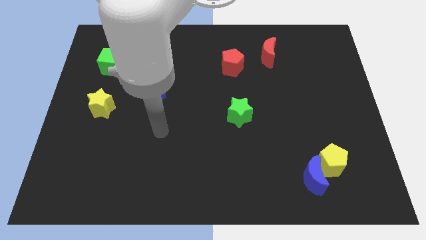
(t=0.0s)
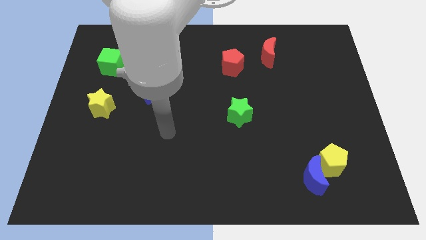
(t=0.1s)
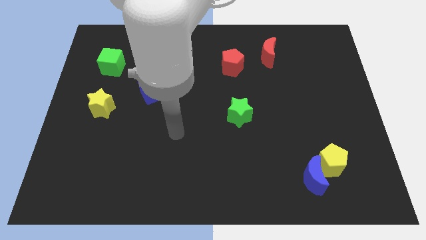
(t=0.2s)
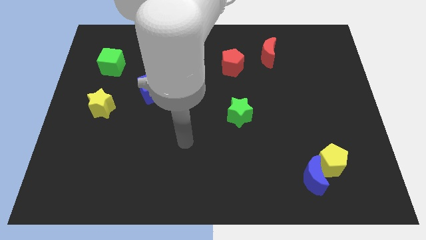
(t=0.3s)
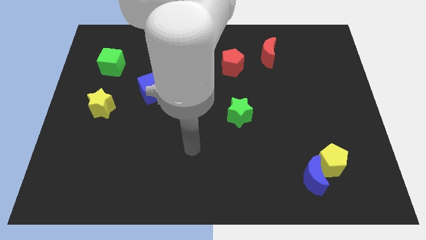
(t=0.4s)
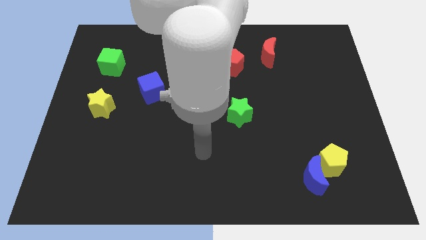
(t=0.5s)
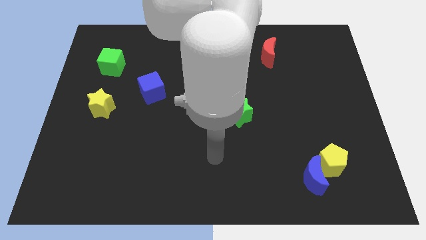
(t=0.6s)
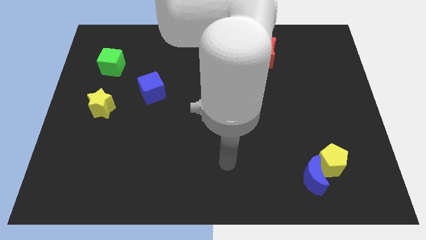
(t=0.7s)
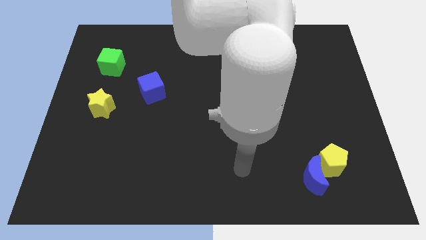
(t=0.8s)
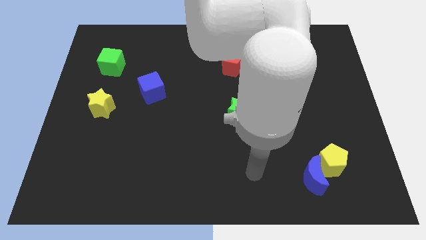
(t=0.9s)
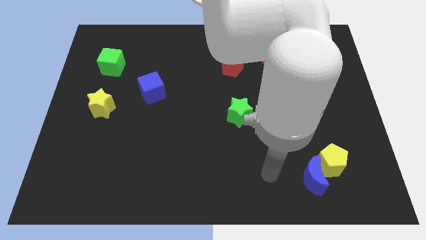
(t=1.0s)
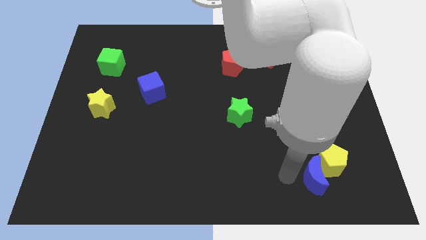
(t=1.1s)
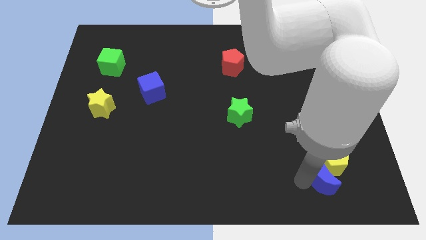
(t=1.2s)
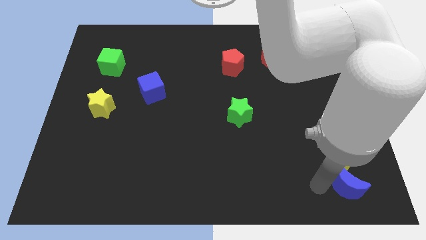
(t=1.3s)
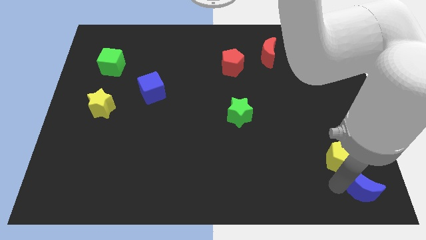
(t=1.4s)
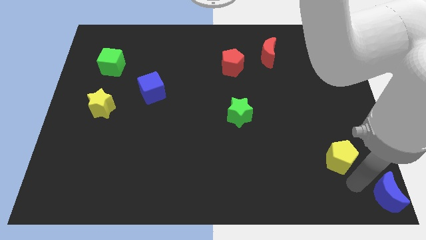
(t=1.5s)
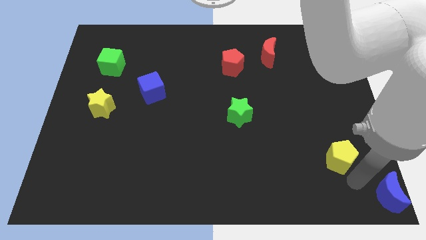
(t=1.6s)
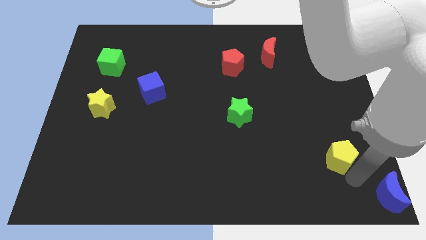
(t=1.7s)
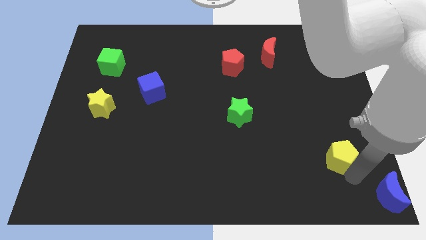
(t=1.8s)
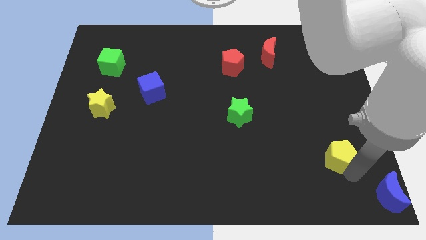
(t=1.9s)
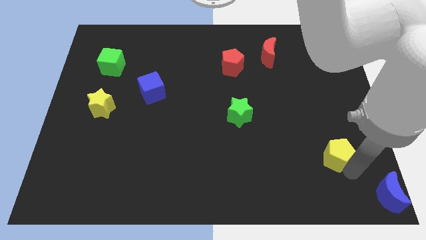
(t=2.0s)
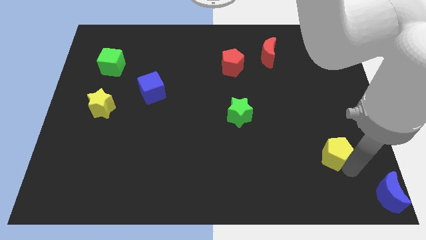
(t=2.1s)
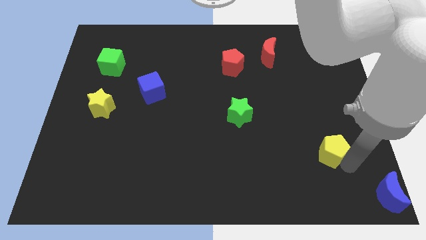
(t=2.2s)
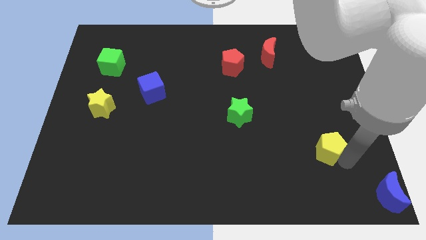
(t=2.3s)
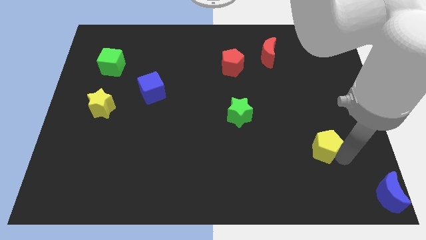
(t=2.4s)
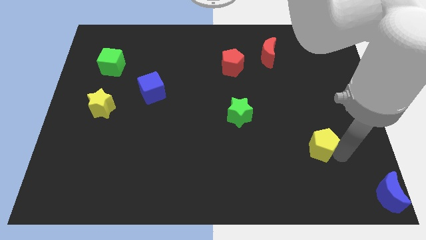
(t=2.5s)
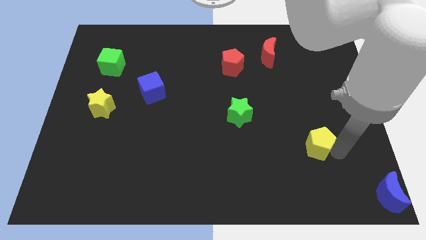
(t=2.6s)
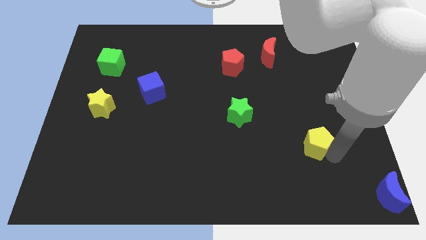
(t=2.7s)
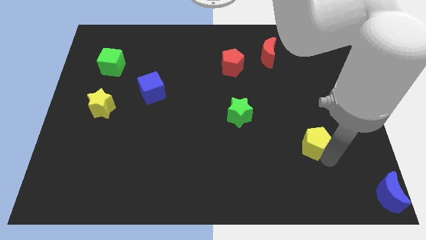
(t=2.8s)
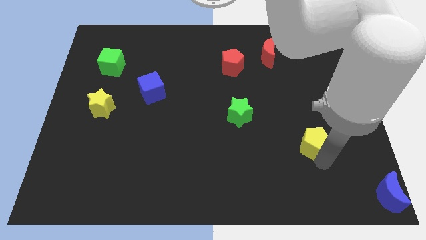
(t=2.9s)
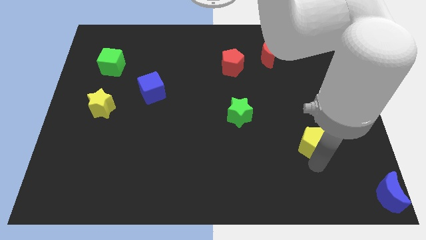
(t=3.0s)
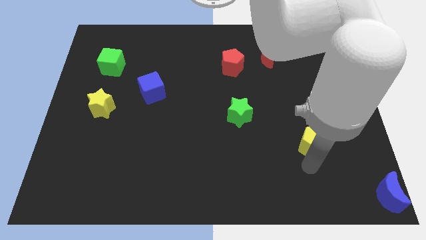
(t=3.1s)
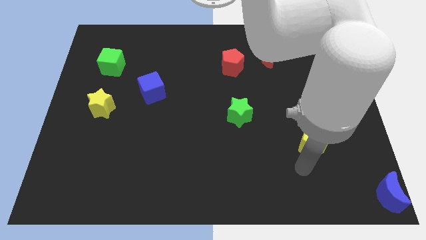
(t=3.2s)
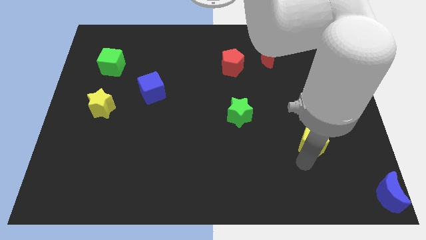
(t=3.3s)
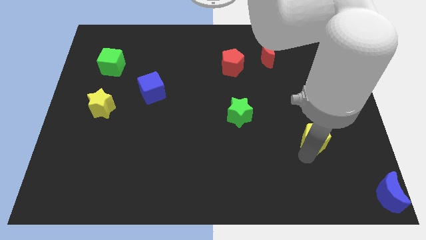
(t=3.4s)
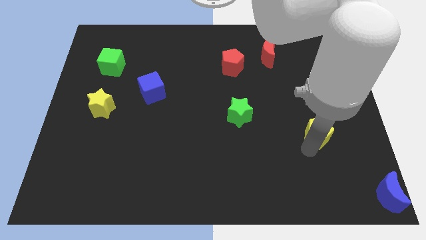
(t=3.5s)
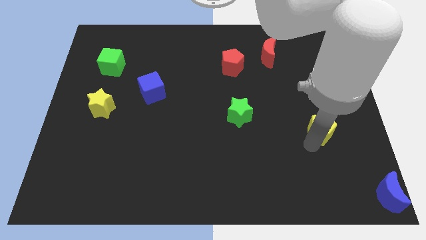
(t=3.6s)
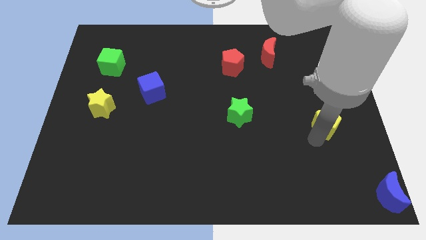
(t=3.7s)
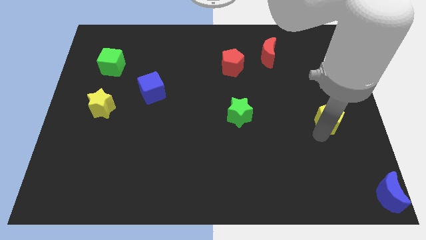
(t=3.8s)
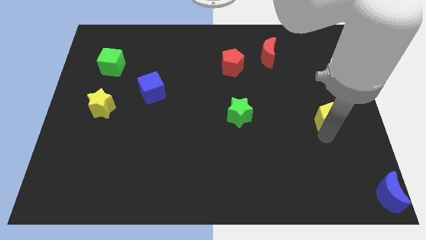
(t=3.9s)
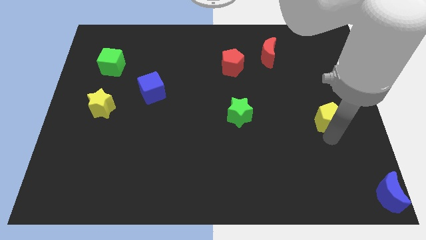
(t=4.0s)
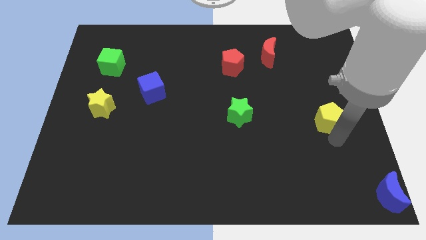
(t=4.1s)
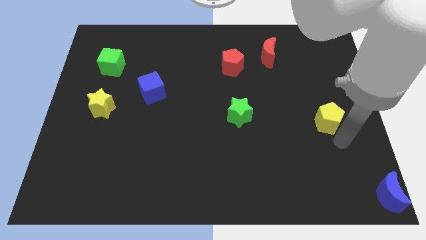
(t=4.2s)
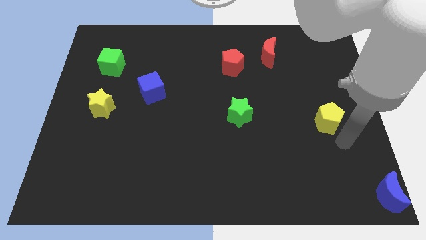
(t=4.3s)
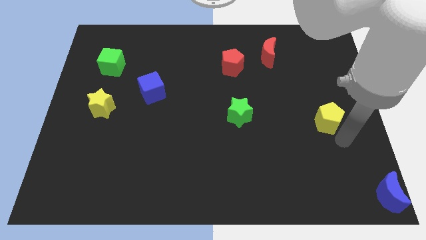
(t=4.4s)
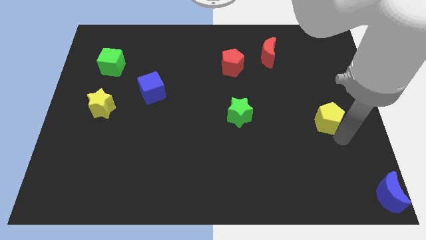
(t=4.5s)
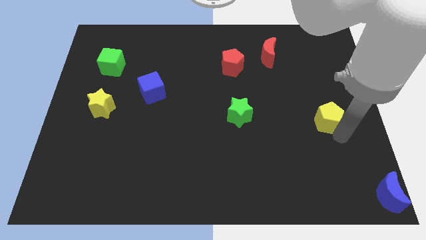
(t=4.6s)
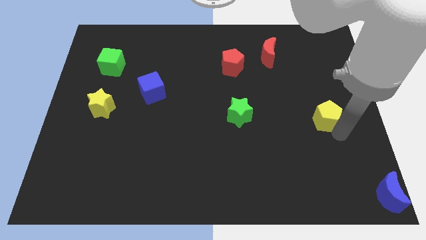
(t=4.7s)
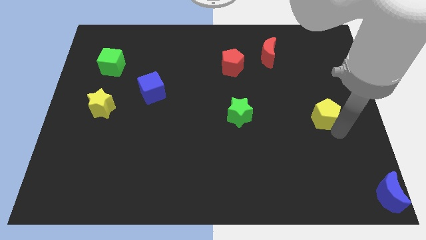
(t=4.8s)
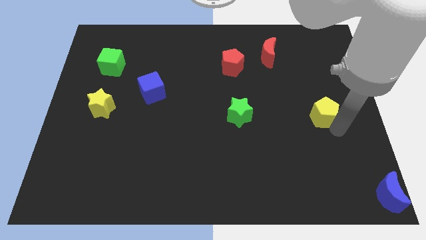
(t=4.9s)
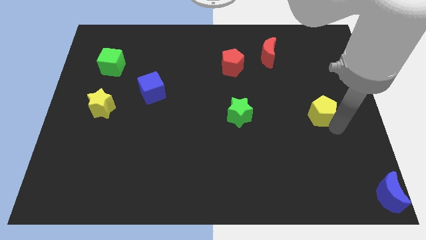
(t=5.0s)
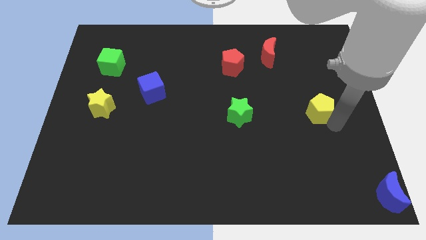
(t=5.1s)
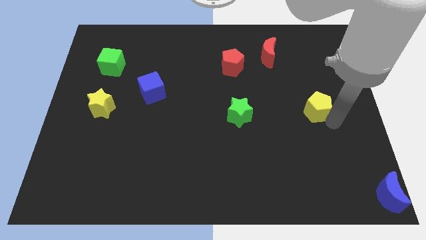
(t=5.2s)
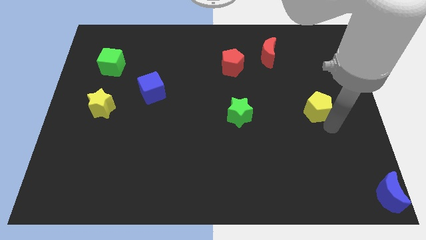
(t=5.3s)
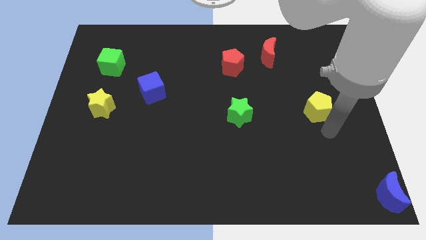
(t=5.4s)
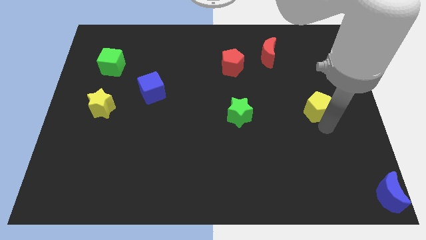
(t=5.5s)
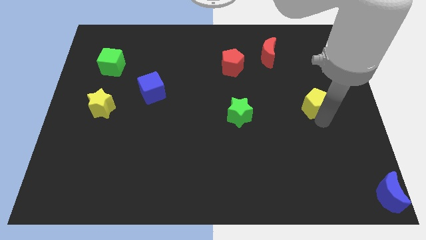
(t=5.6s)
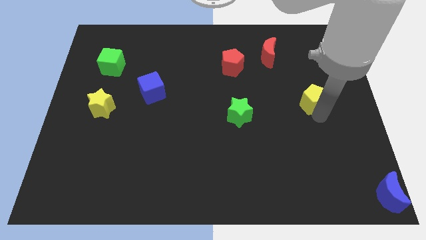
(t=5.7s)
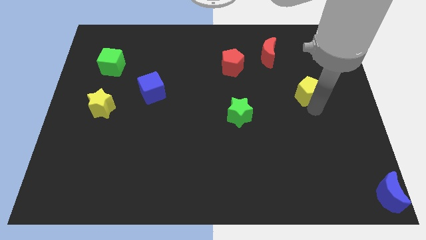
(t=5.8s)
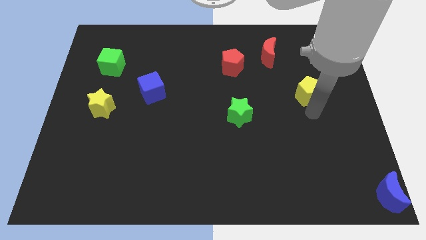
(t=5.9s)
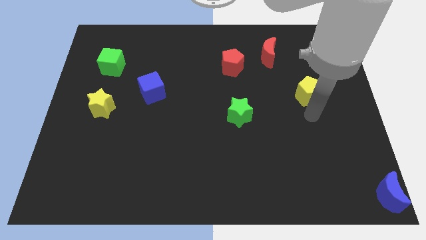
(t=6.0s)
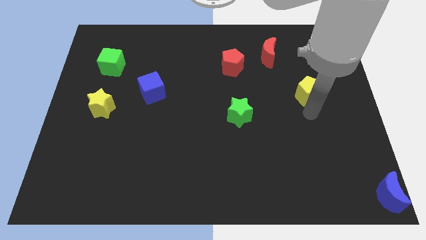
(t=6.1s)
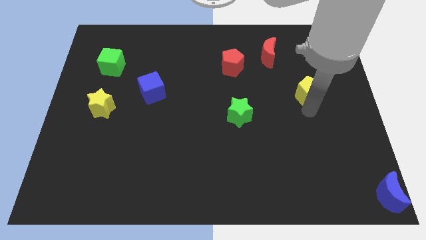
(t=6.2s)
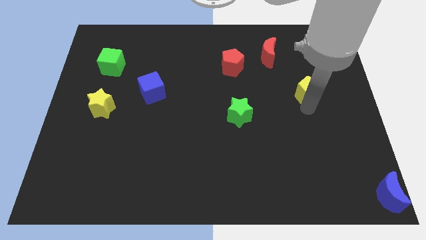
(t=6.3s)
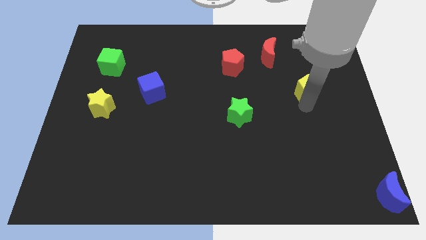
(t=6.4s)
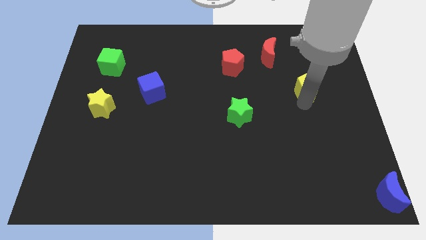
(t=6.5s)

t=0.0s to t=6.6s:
move the yellow pentagon upwards

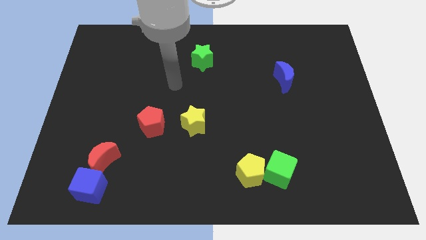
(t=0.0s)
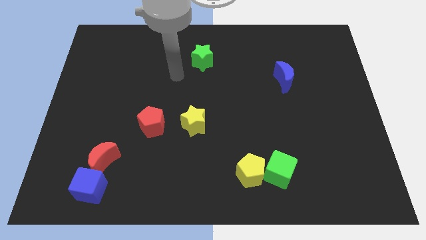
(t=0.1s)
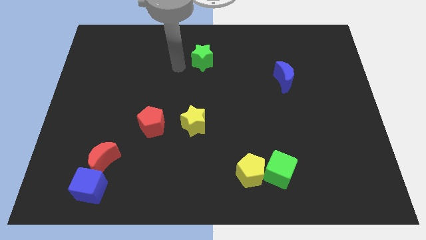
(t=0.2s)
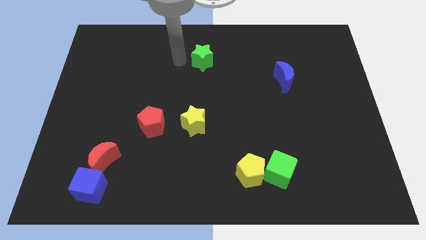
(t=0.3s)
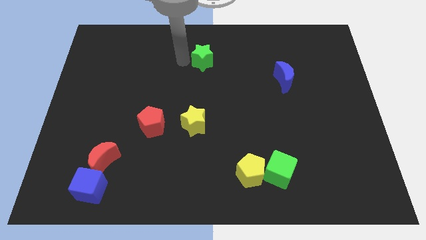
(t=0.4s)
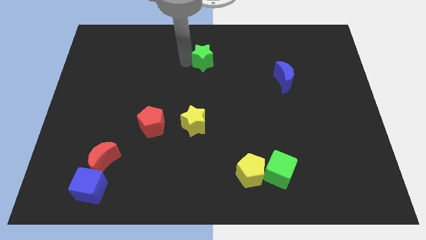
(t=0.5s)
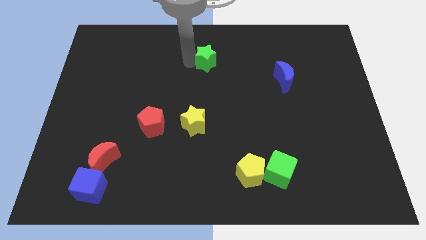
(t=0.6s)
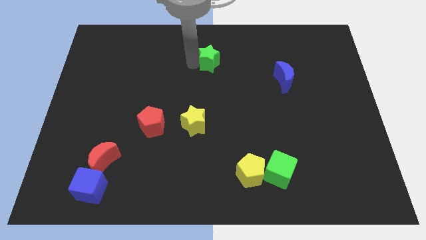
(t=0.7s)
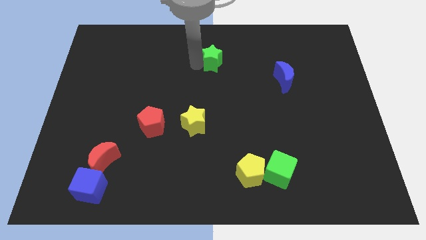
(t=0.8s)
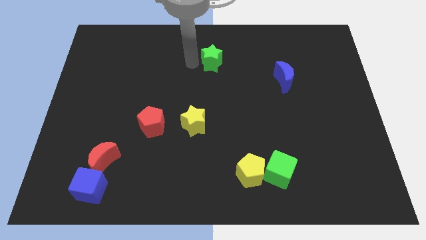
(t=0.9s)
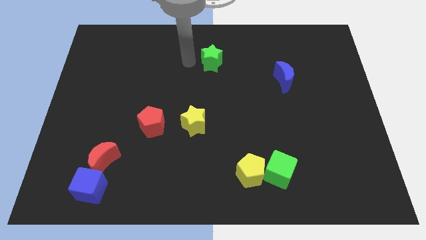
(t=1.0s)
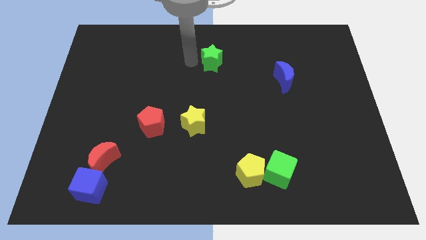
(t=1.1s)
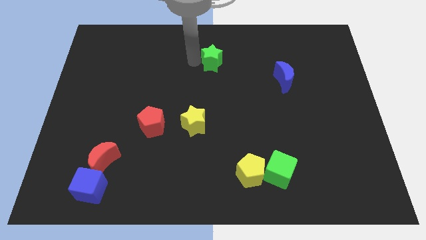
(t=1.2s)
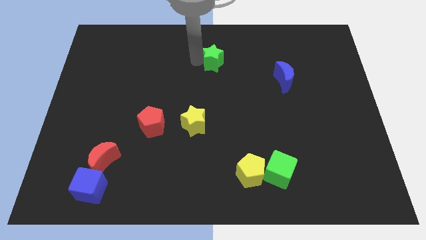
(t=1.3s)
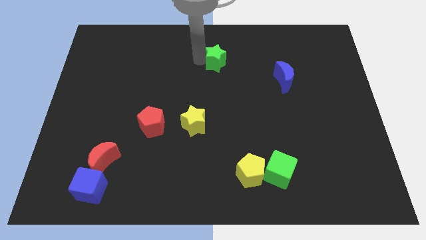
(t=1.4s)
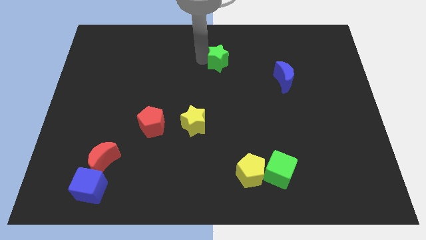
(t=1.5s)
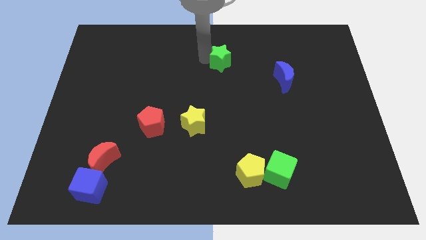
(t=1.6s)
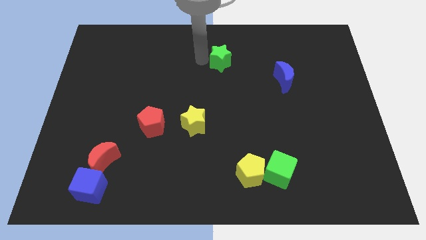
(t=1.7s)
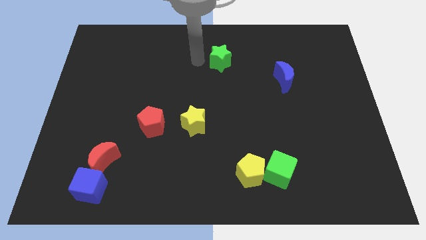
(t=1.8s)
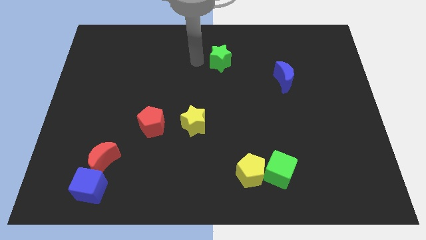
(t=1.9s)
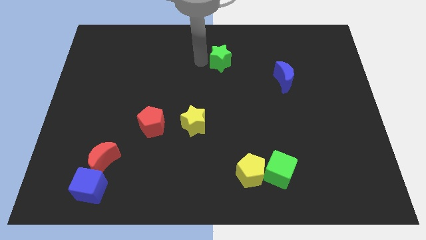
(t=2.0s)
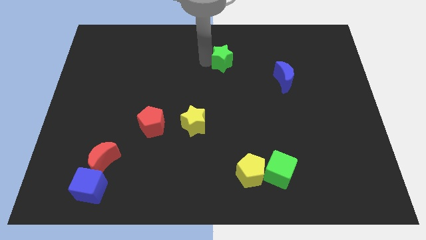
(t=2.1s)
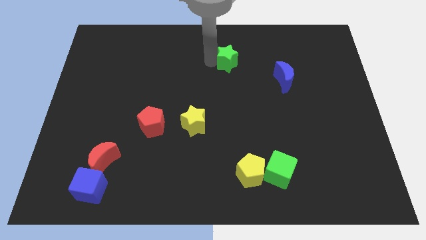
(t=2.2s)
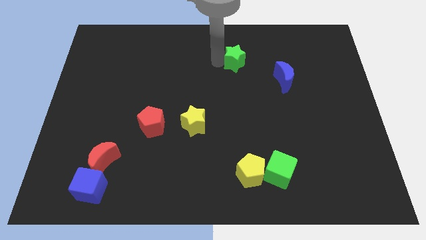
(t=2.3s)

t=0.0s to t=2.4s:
slide the green star right somewhat
